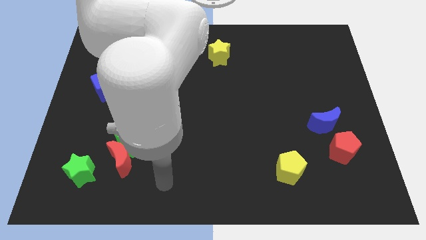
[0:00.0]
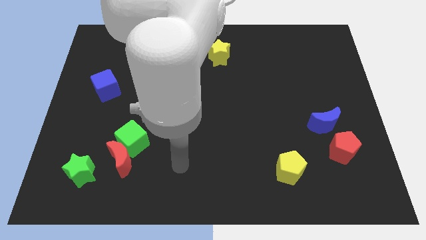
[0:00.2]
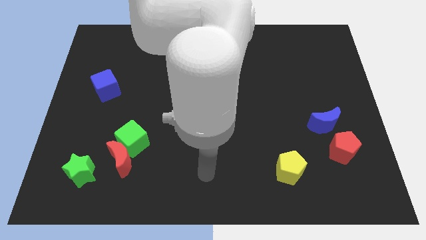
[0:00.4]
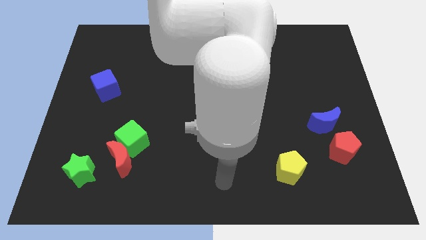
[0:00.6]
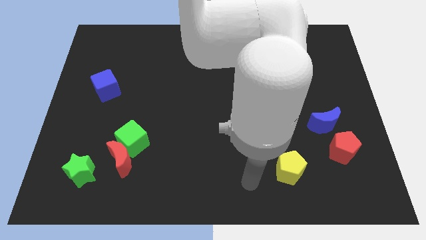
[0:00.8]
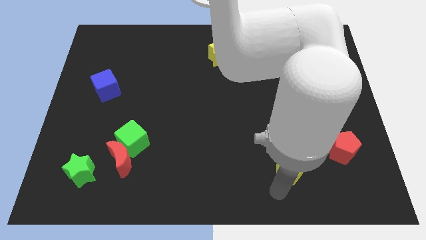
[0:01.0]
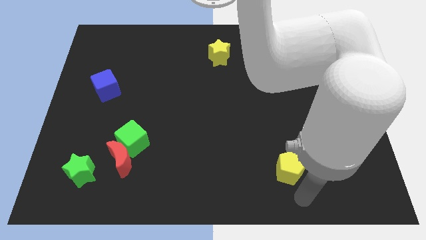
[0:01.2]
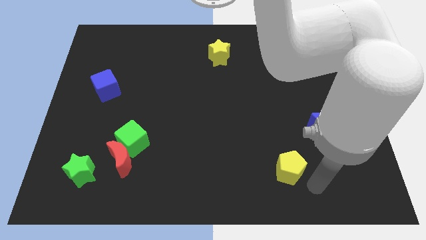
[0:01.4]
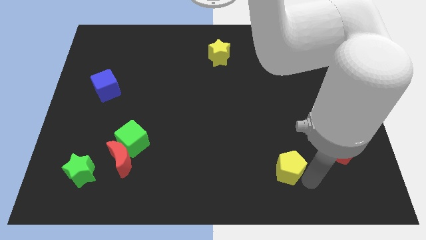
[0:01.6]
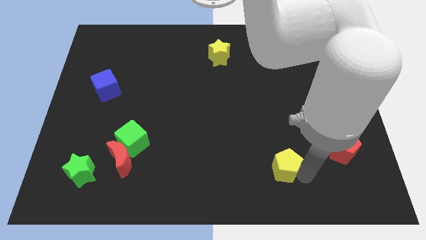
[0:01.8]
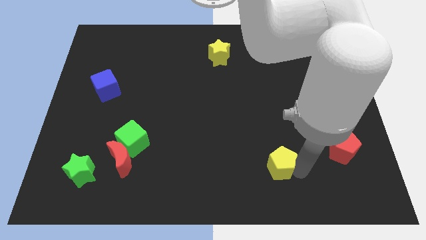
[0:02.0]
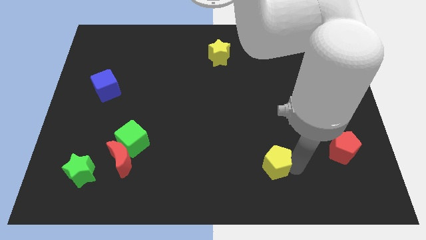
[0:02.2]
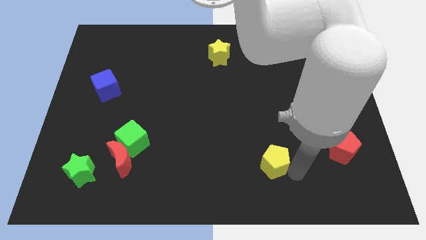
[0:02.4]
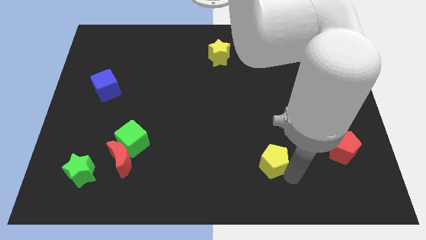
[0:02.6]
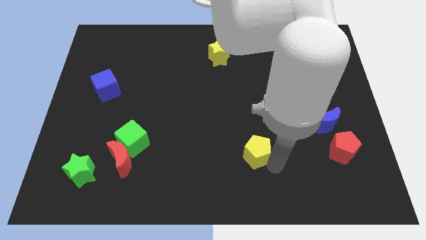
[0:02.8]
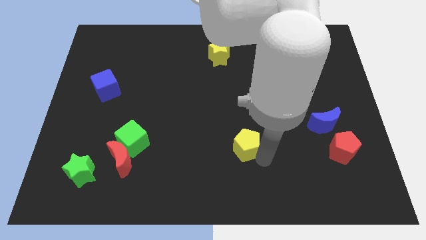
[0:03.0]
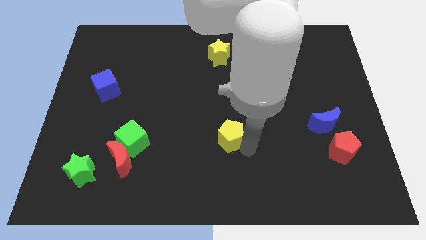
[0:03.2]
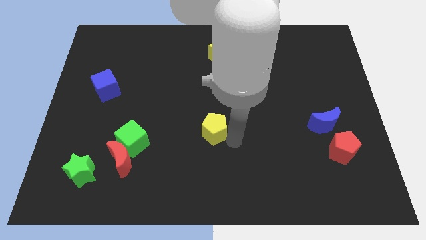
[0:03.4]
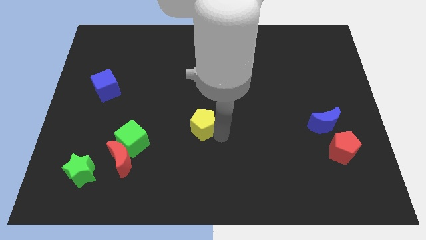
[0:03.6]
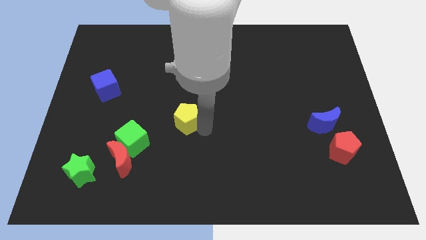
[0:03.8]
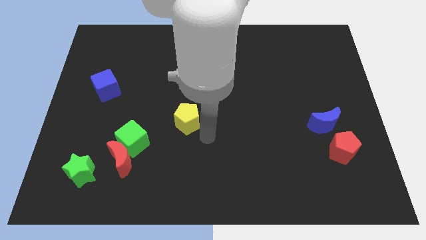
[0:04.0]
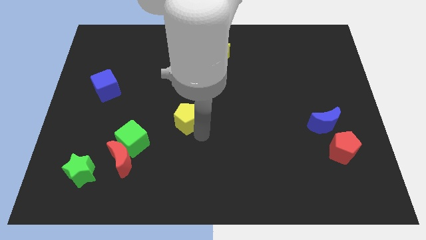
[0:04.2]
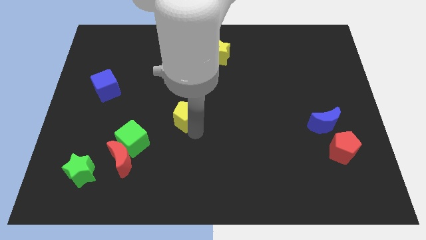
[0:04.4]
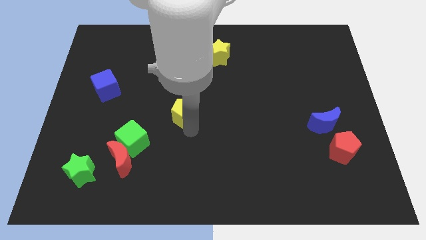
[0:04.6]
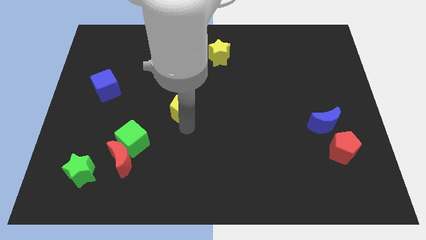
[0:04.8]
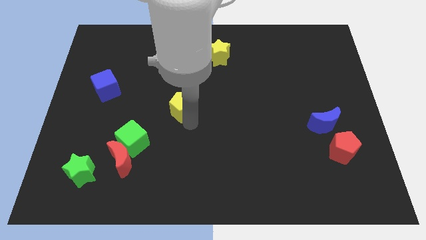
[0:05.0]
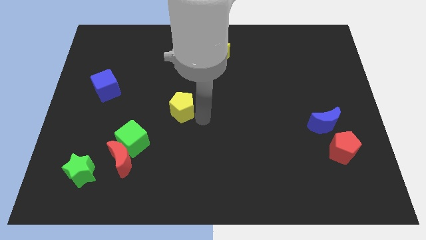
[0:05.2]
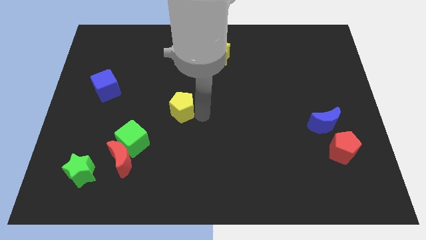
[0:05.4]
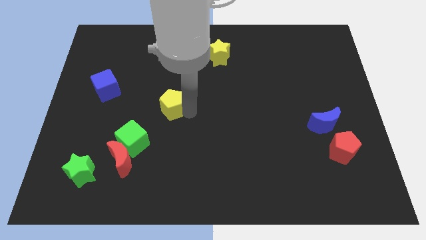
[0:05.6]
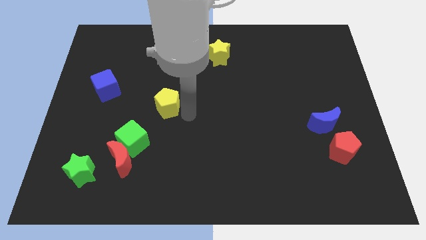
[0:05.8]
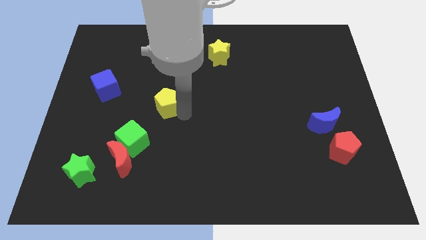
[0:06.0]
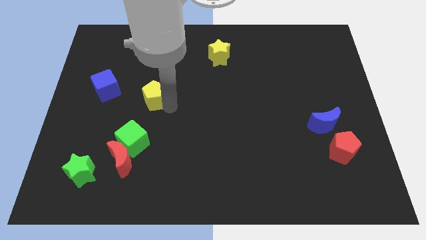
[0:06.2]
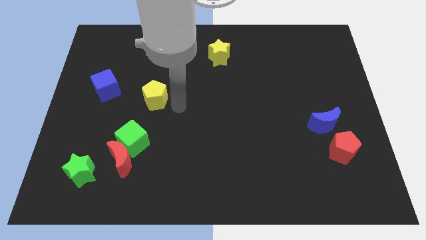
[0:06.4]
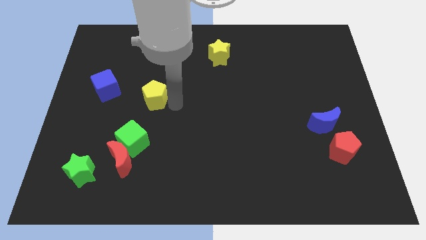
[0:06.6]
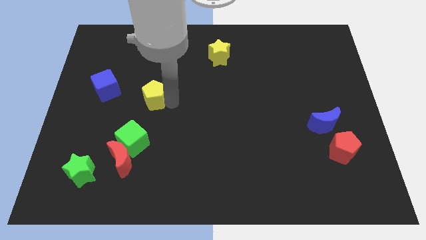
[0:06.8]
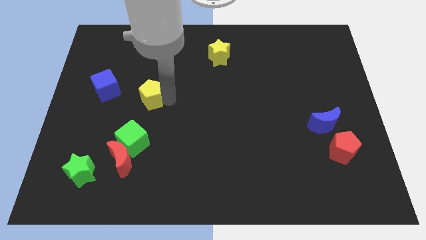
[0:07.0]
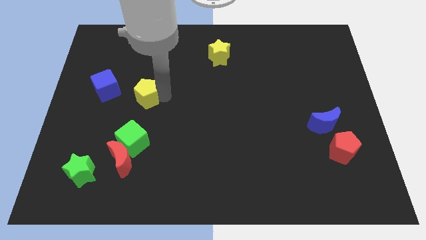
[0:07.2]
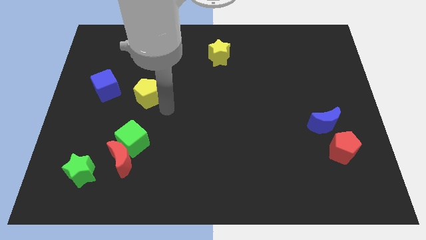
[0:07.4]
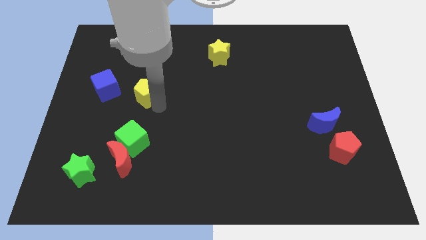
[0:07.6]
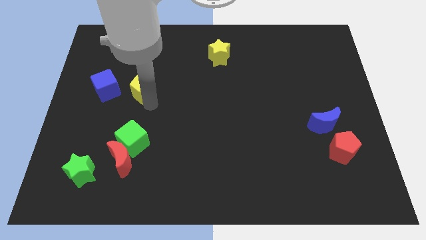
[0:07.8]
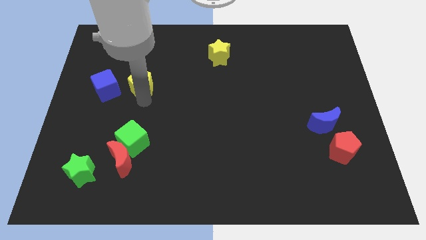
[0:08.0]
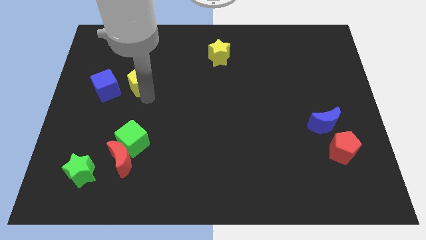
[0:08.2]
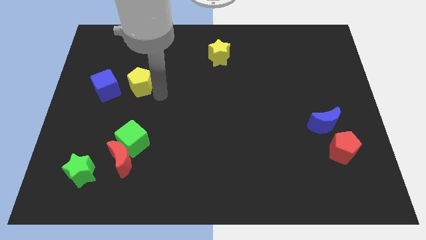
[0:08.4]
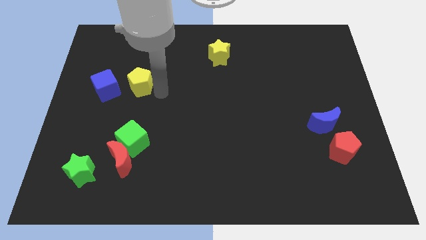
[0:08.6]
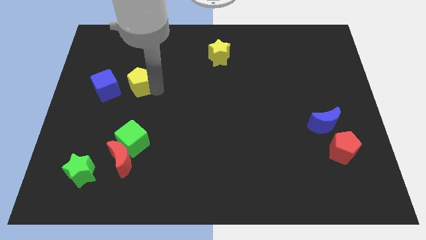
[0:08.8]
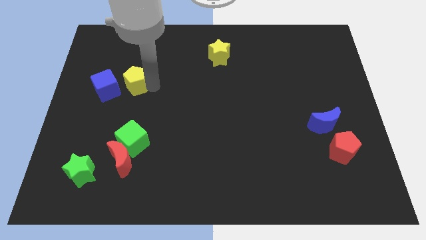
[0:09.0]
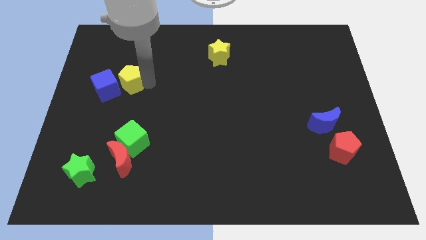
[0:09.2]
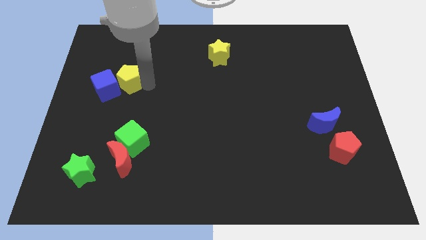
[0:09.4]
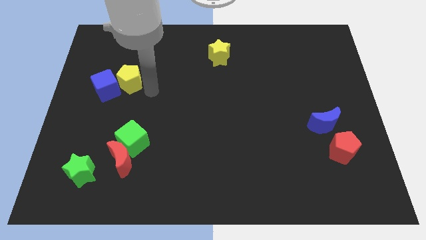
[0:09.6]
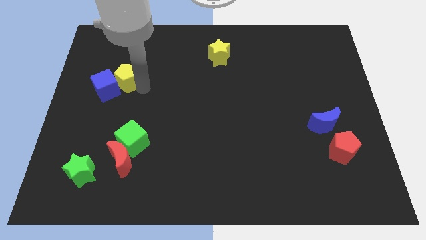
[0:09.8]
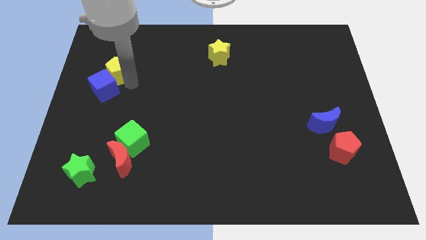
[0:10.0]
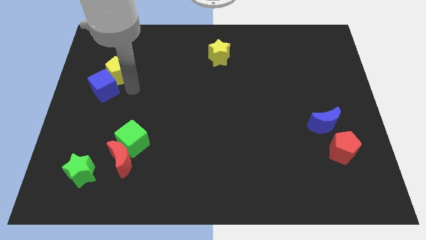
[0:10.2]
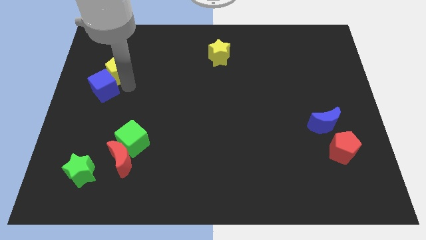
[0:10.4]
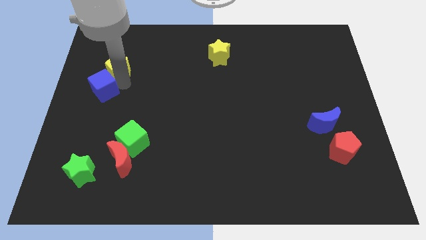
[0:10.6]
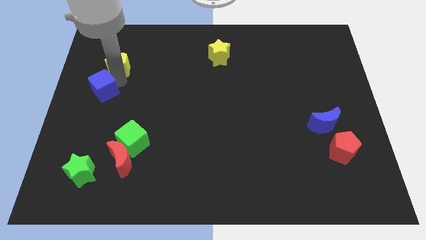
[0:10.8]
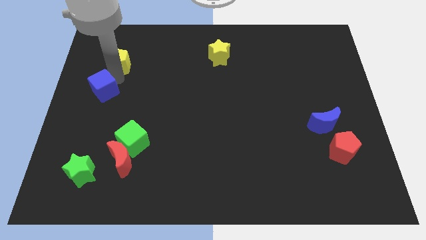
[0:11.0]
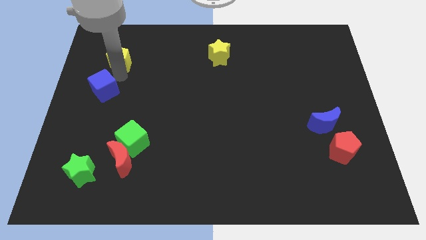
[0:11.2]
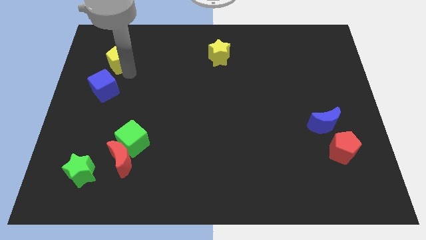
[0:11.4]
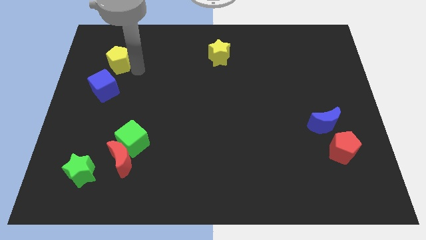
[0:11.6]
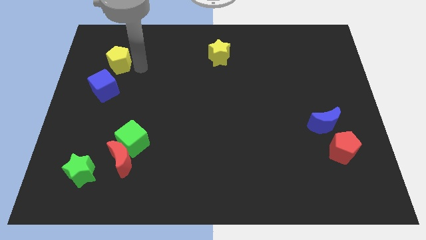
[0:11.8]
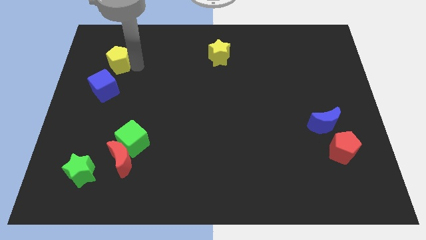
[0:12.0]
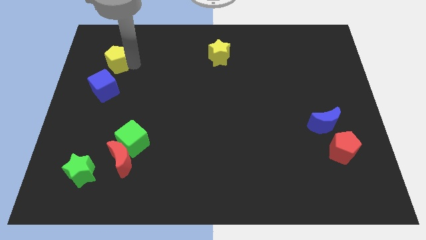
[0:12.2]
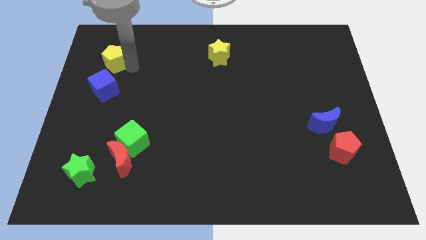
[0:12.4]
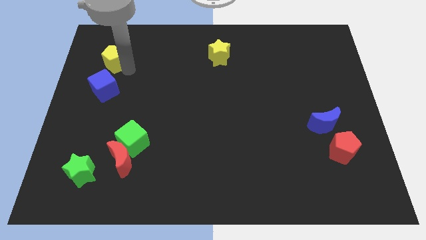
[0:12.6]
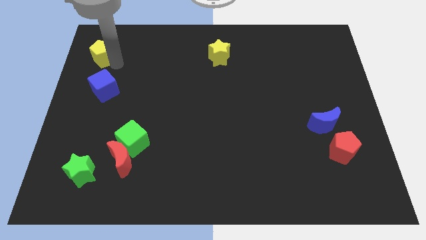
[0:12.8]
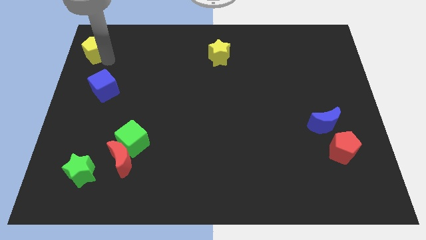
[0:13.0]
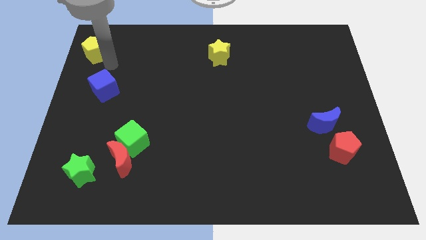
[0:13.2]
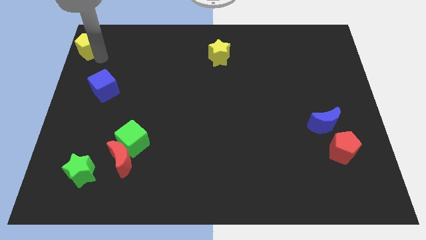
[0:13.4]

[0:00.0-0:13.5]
slide the yellow pentagon to the top left of the board
